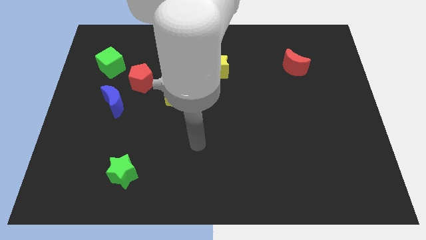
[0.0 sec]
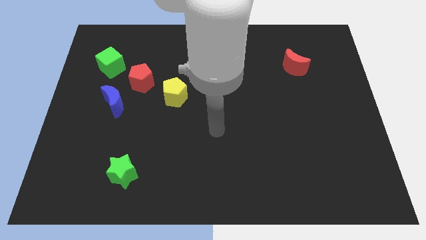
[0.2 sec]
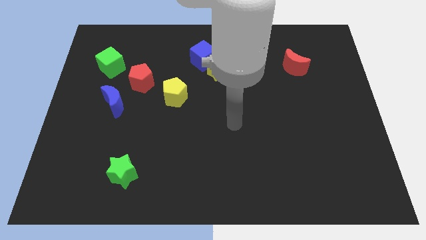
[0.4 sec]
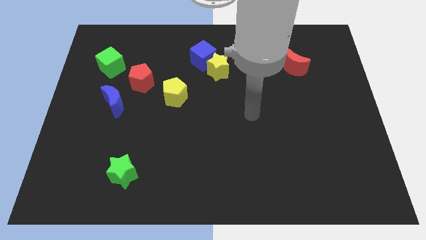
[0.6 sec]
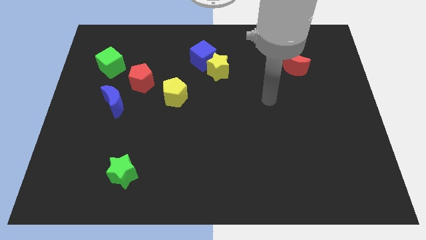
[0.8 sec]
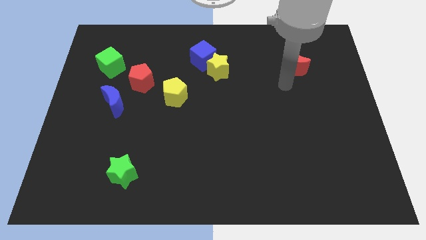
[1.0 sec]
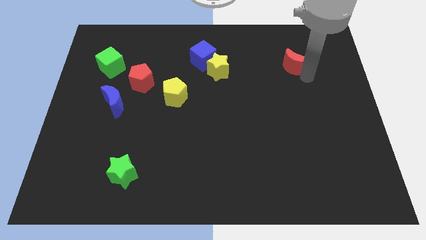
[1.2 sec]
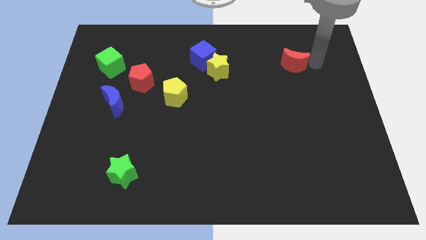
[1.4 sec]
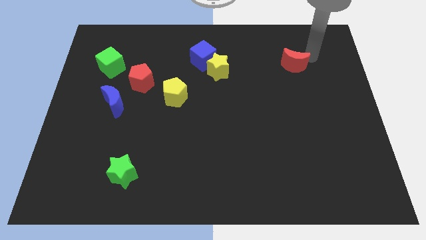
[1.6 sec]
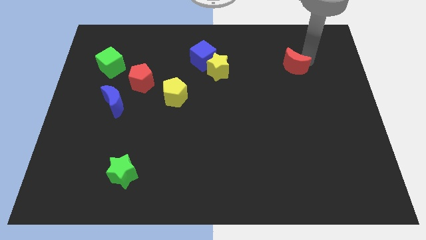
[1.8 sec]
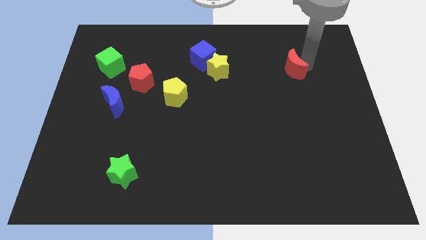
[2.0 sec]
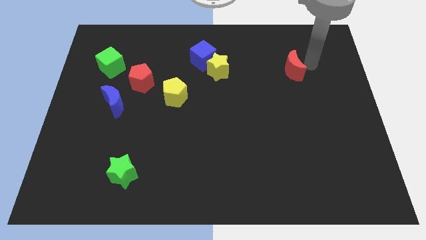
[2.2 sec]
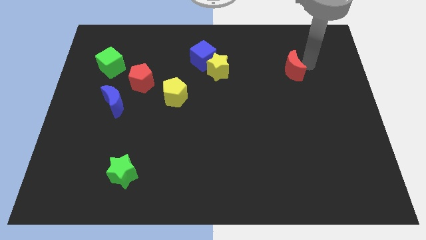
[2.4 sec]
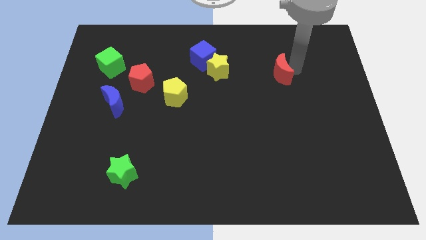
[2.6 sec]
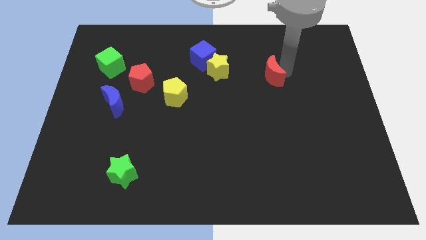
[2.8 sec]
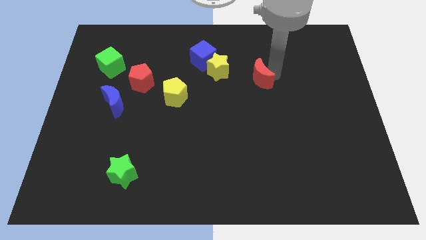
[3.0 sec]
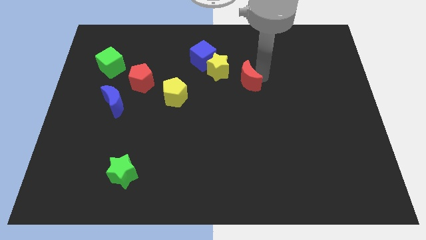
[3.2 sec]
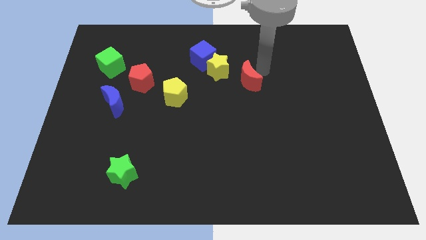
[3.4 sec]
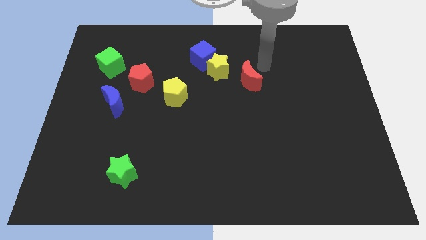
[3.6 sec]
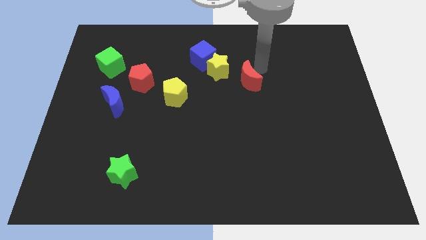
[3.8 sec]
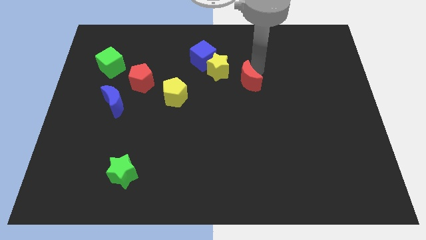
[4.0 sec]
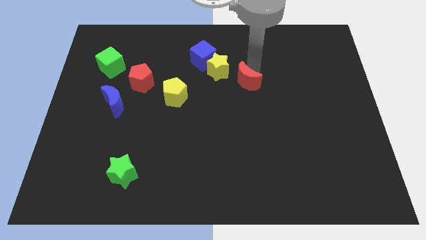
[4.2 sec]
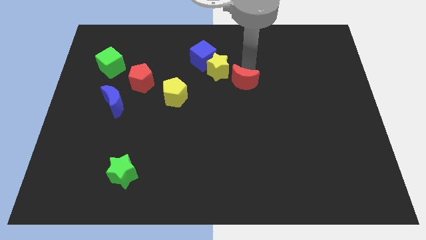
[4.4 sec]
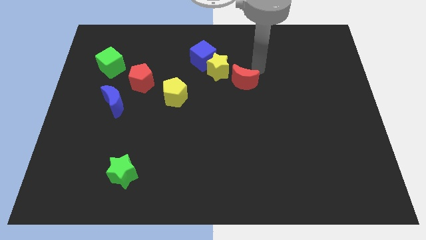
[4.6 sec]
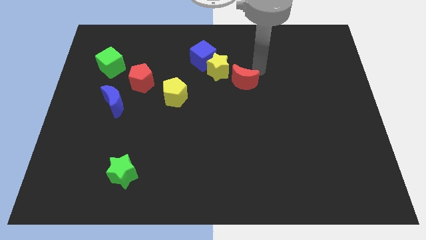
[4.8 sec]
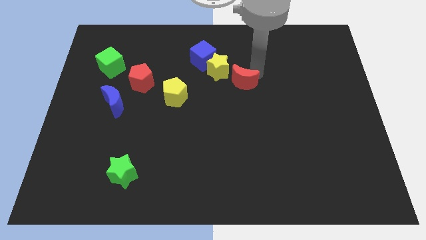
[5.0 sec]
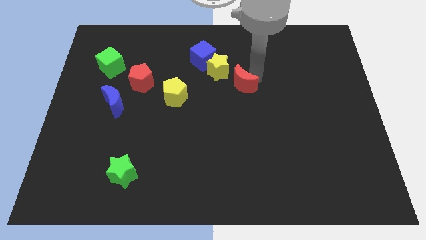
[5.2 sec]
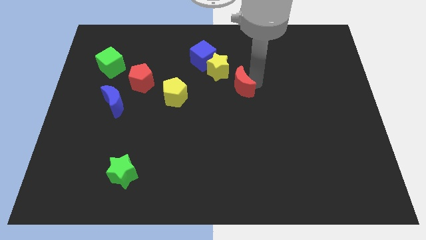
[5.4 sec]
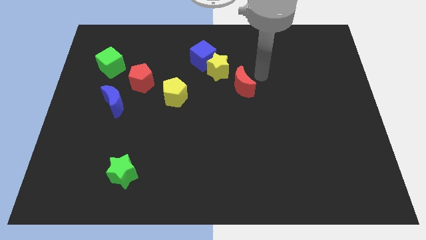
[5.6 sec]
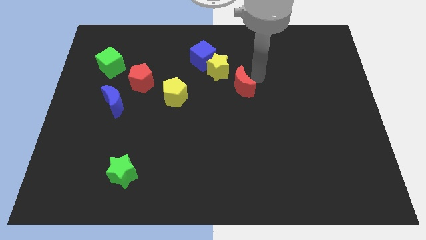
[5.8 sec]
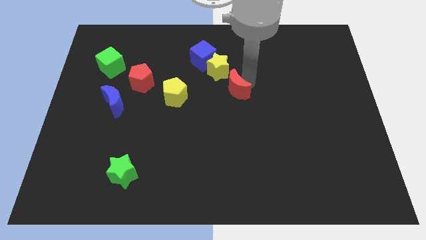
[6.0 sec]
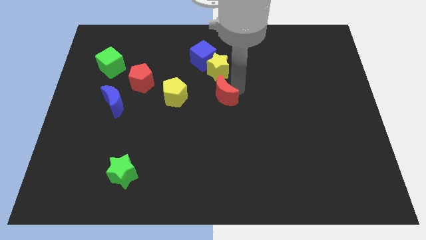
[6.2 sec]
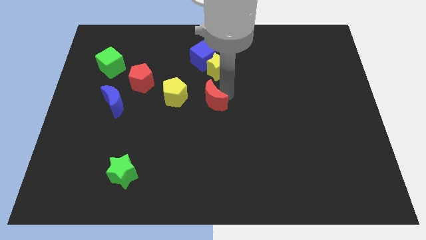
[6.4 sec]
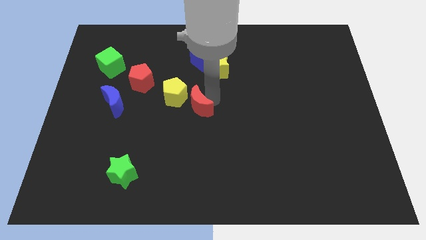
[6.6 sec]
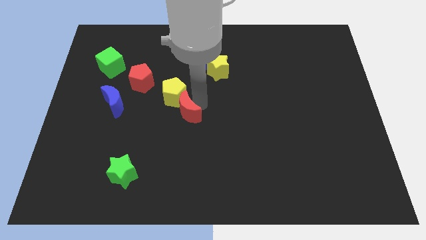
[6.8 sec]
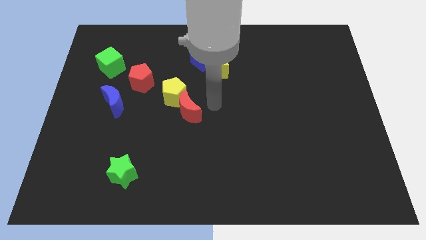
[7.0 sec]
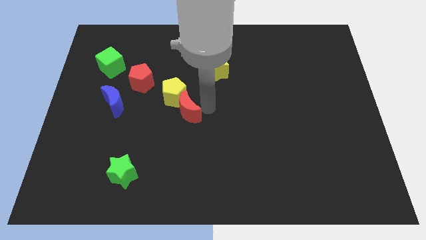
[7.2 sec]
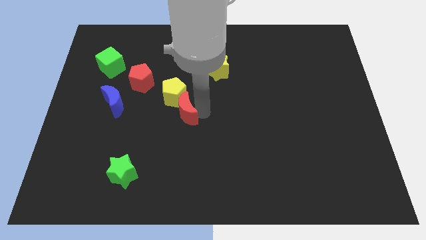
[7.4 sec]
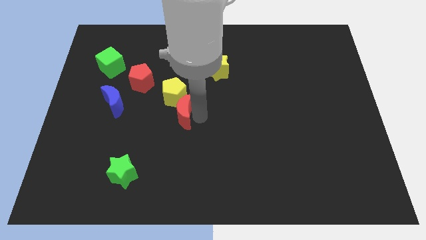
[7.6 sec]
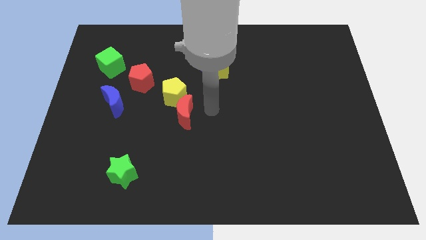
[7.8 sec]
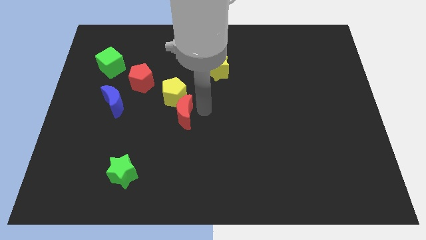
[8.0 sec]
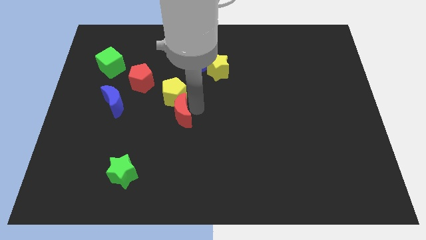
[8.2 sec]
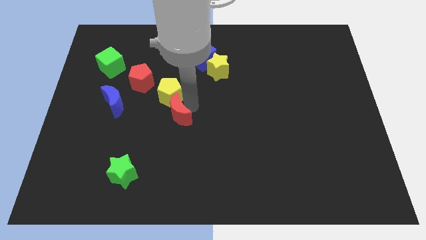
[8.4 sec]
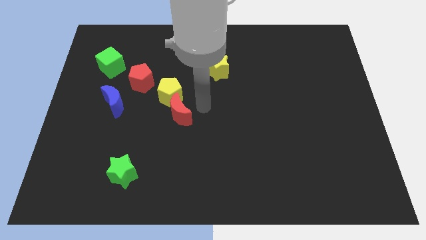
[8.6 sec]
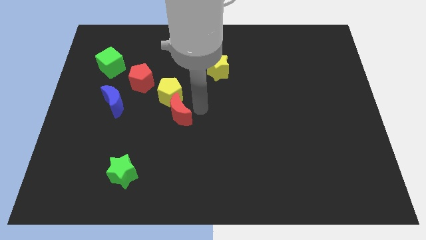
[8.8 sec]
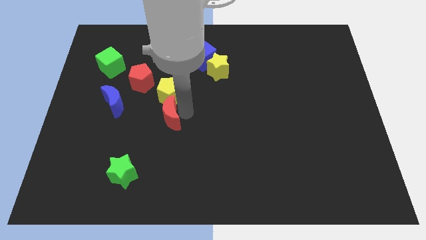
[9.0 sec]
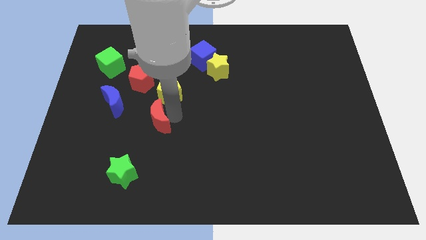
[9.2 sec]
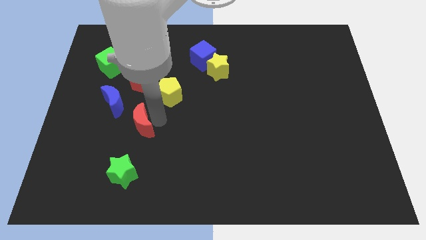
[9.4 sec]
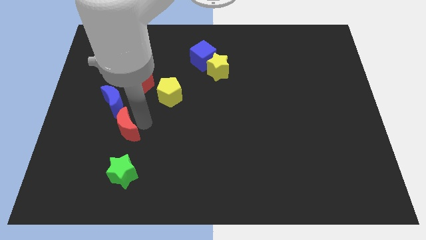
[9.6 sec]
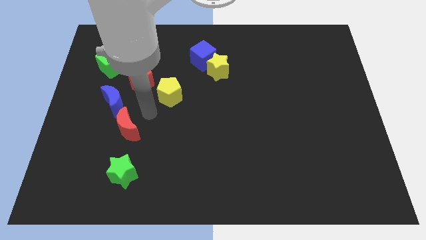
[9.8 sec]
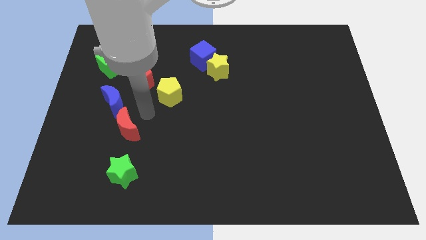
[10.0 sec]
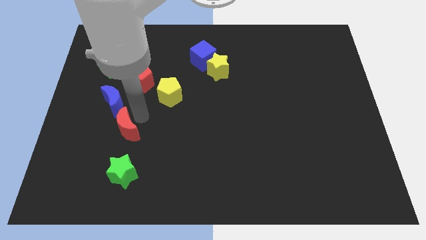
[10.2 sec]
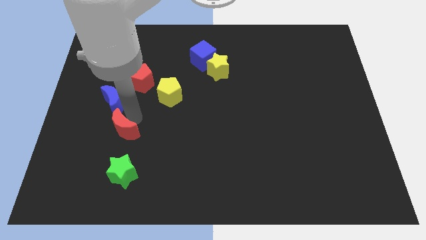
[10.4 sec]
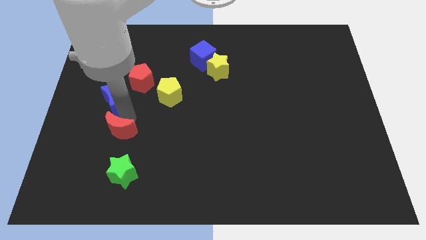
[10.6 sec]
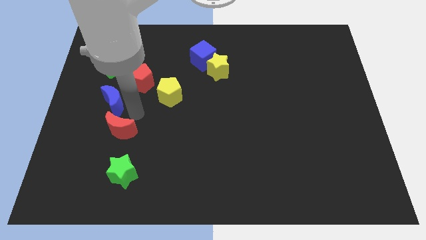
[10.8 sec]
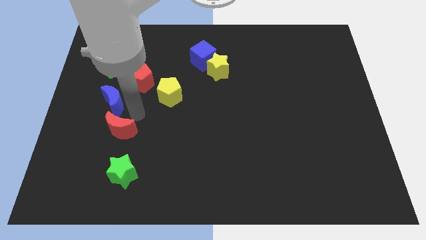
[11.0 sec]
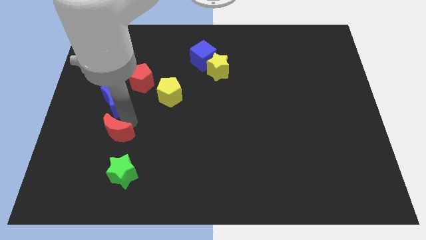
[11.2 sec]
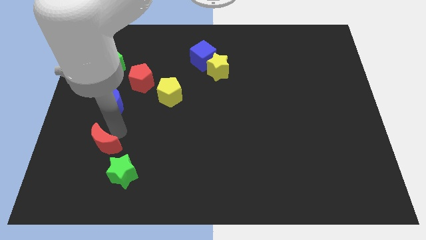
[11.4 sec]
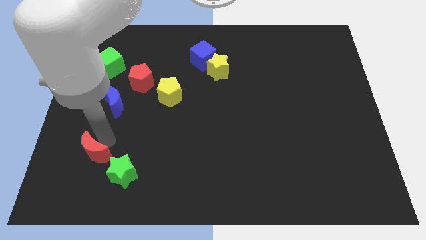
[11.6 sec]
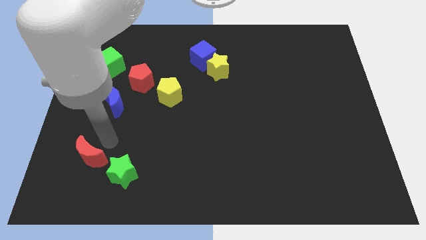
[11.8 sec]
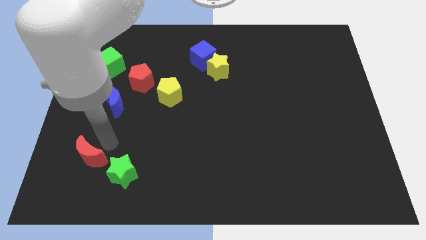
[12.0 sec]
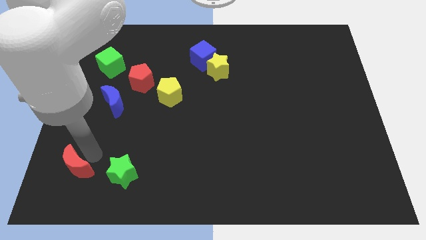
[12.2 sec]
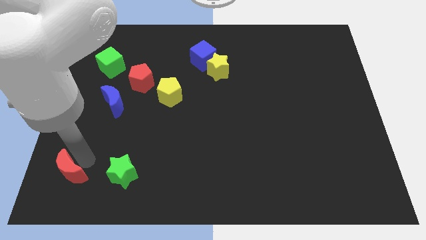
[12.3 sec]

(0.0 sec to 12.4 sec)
slide the red moon to the bottom left
